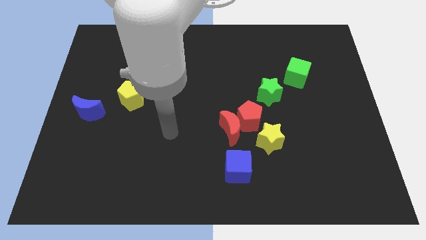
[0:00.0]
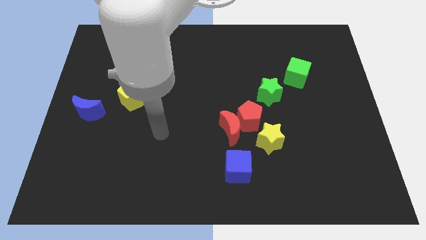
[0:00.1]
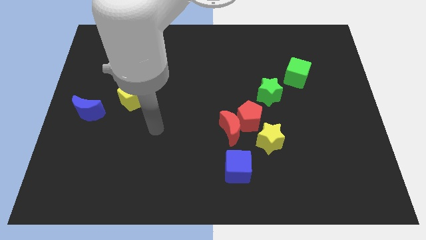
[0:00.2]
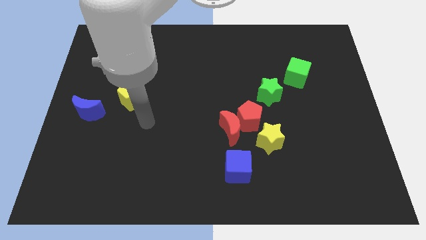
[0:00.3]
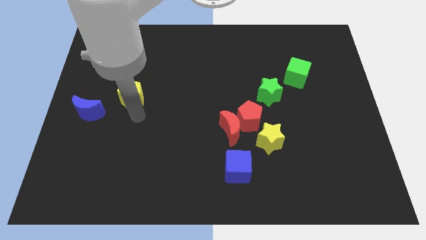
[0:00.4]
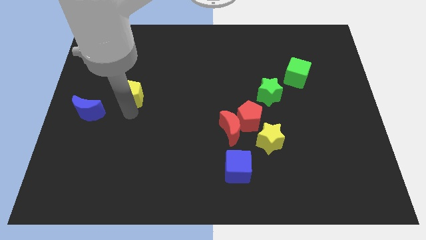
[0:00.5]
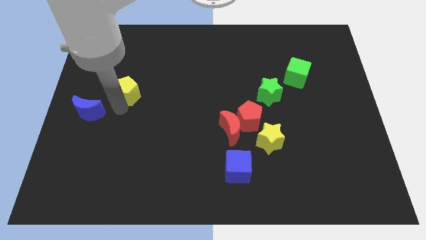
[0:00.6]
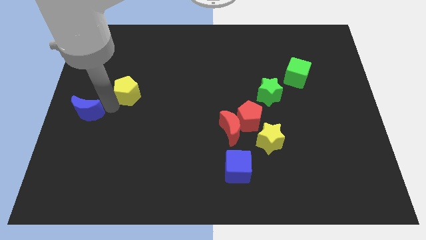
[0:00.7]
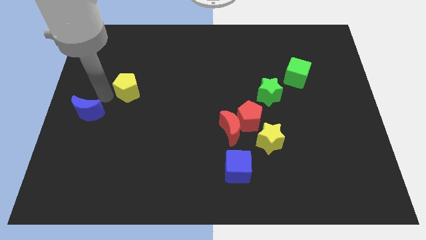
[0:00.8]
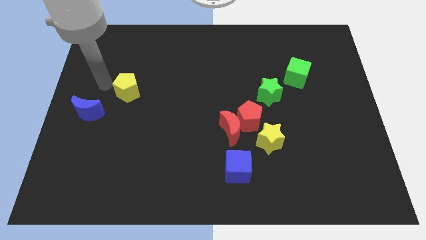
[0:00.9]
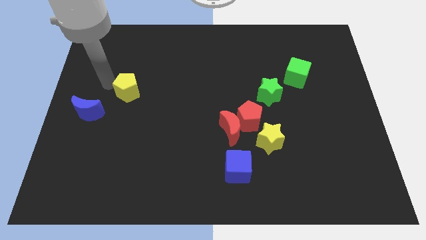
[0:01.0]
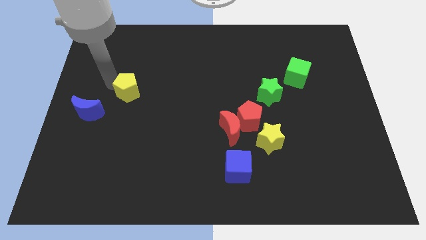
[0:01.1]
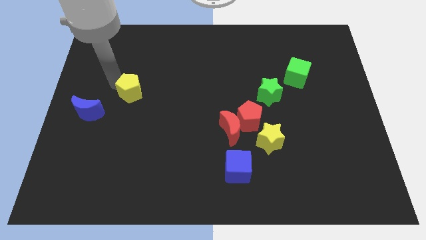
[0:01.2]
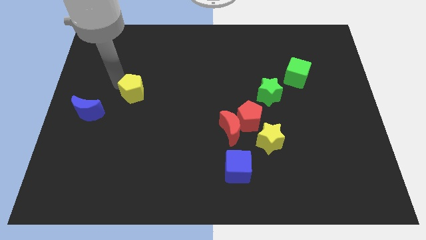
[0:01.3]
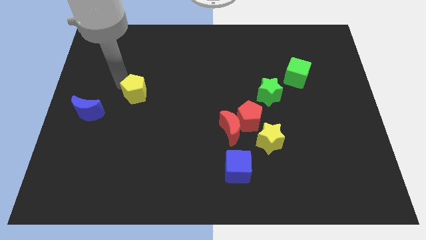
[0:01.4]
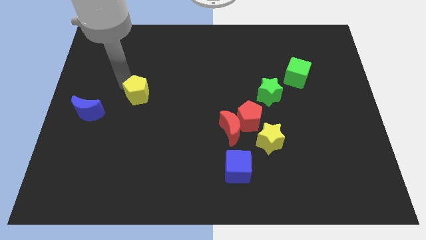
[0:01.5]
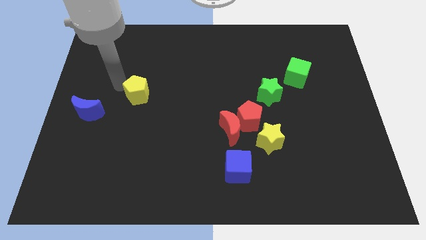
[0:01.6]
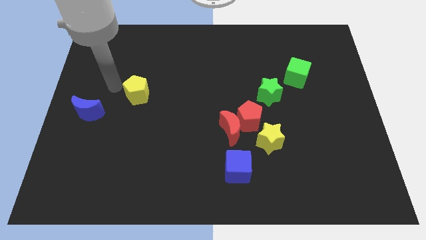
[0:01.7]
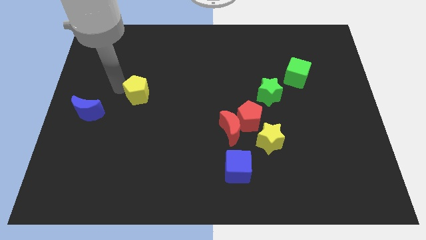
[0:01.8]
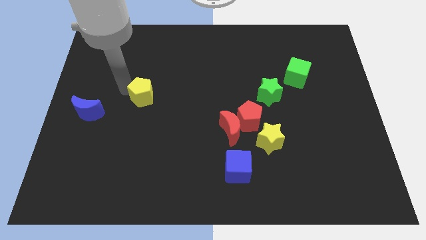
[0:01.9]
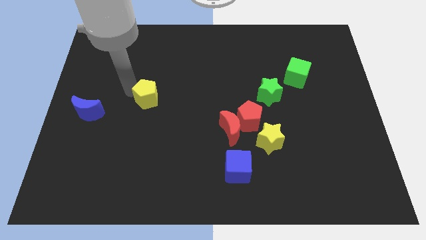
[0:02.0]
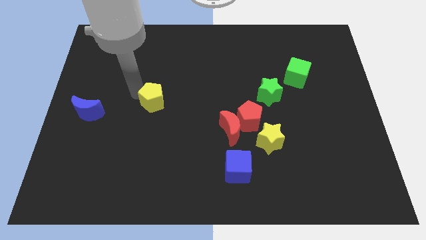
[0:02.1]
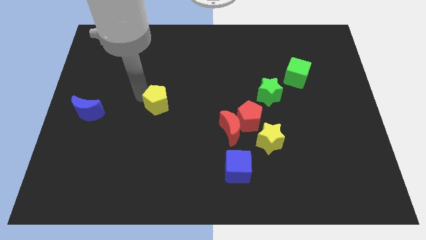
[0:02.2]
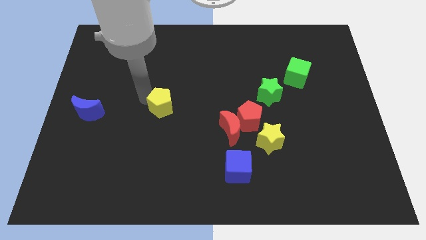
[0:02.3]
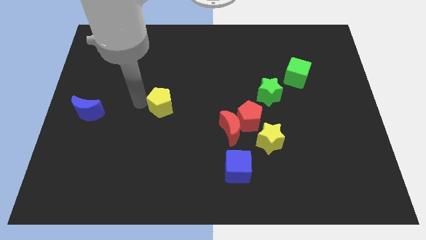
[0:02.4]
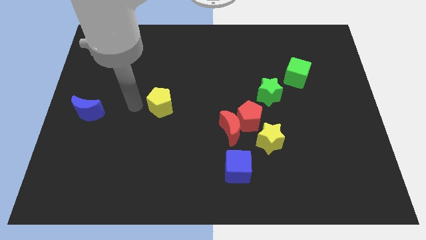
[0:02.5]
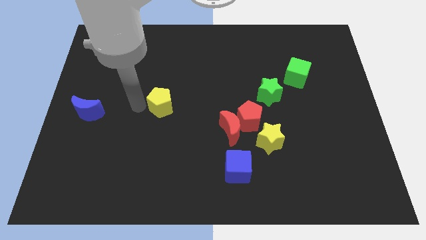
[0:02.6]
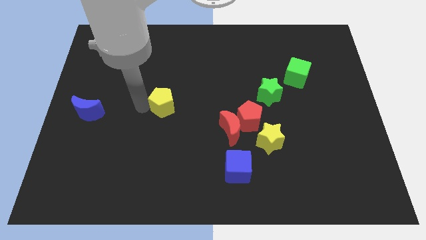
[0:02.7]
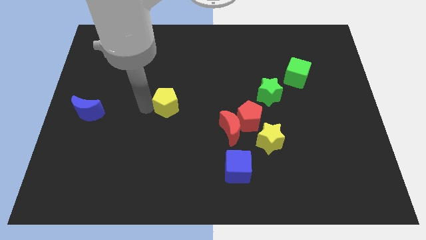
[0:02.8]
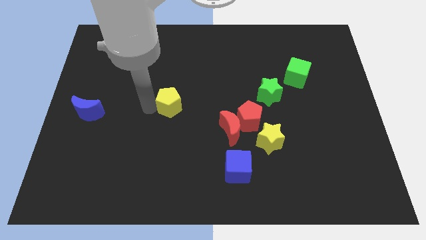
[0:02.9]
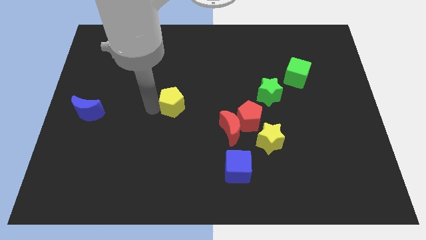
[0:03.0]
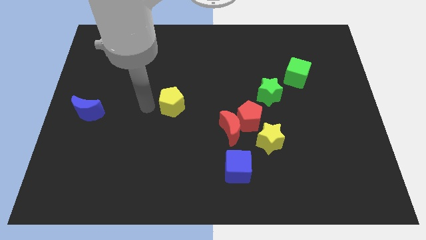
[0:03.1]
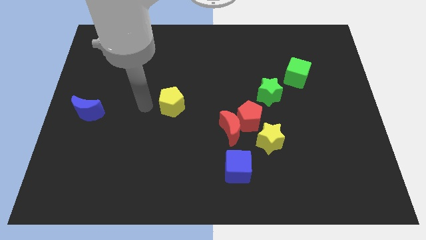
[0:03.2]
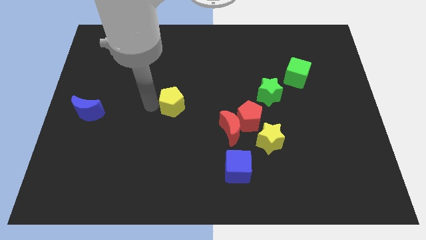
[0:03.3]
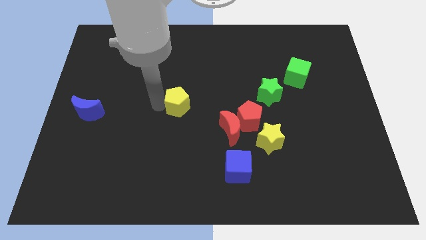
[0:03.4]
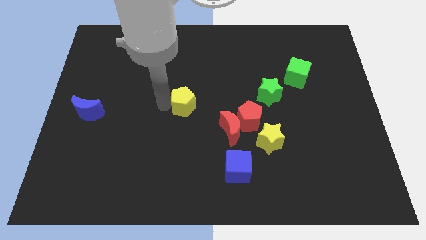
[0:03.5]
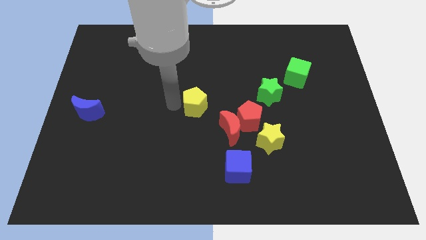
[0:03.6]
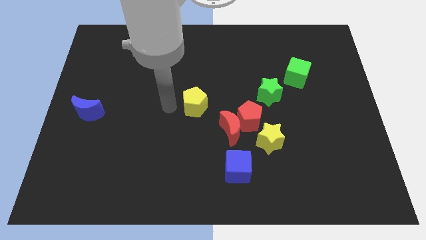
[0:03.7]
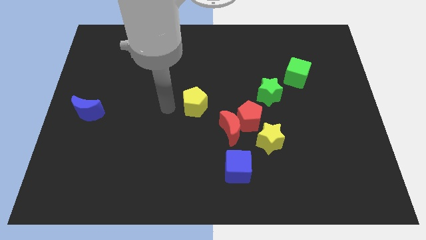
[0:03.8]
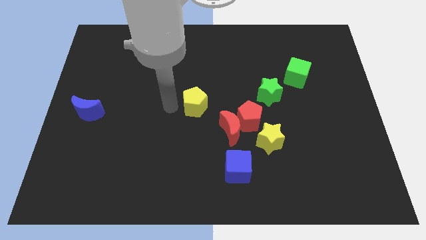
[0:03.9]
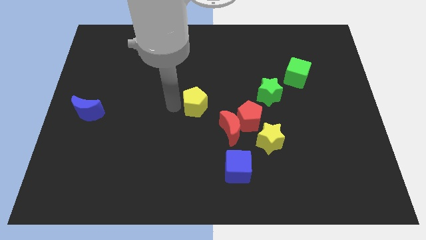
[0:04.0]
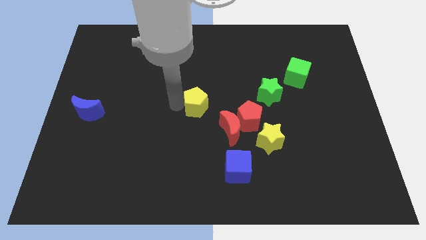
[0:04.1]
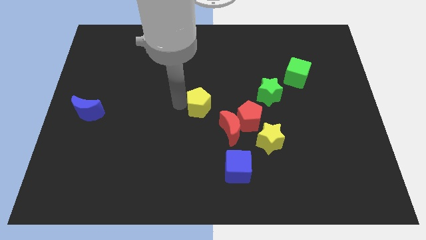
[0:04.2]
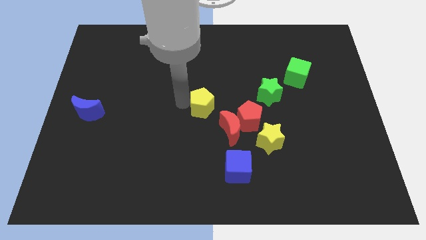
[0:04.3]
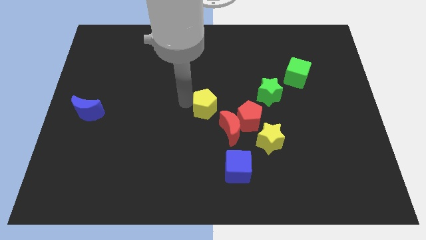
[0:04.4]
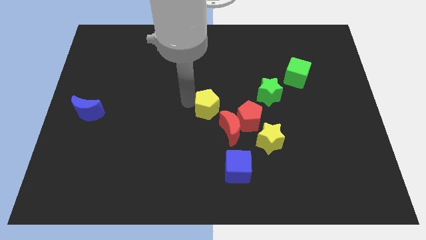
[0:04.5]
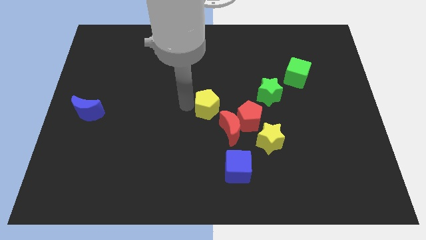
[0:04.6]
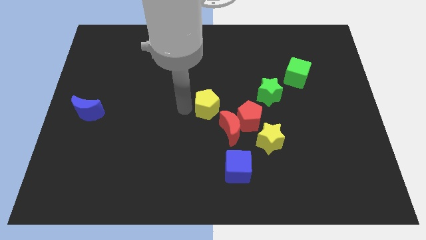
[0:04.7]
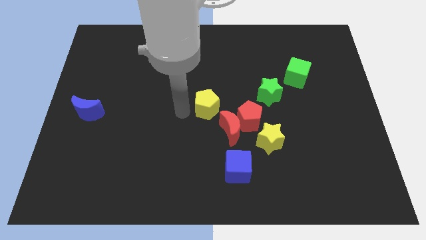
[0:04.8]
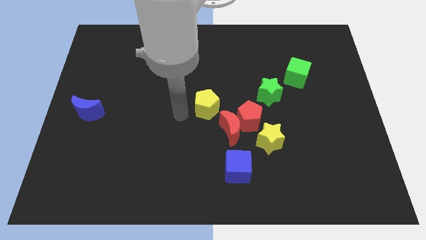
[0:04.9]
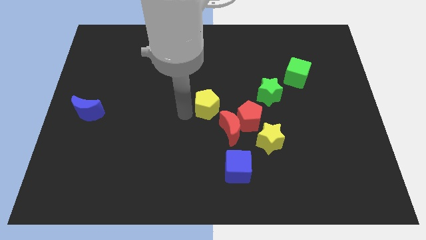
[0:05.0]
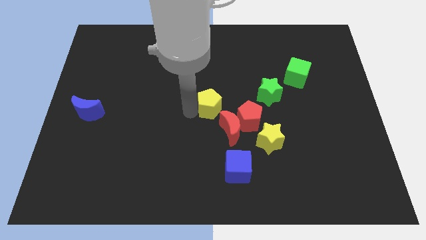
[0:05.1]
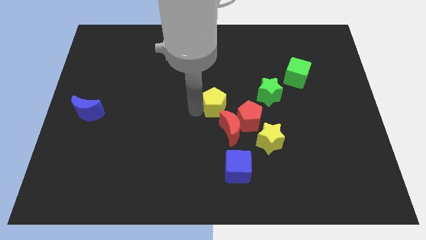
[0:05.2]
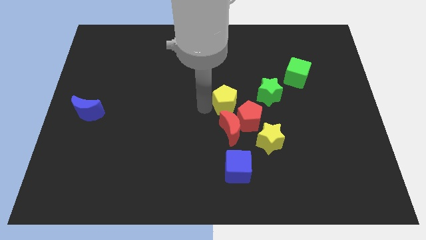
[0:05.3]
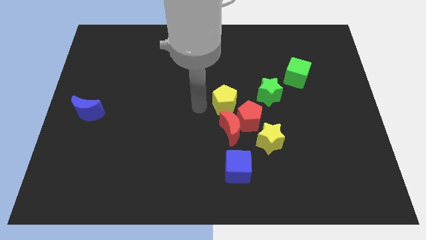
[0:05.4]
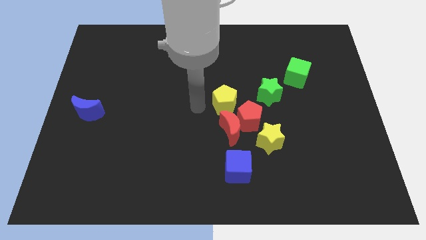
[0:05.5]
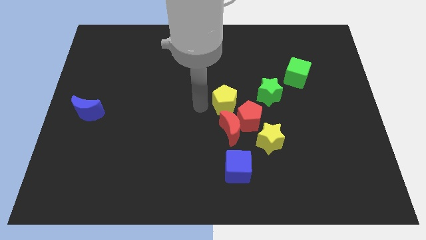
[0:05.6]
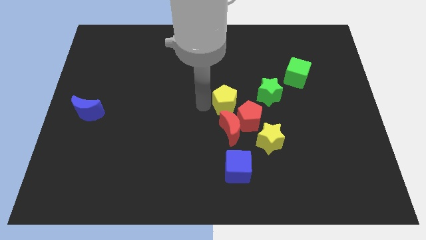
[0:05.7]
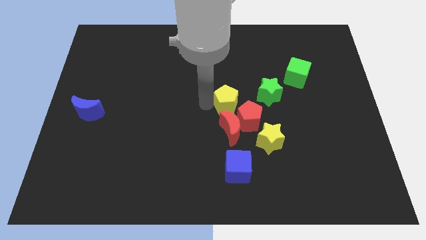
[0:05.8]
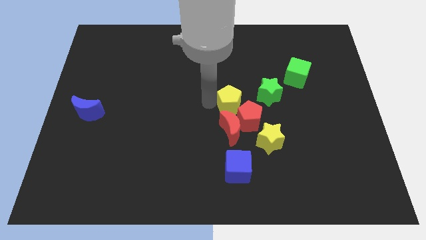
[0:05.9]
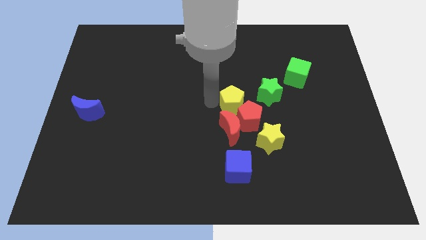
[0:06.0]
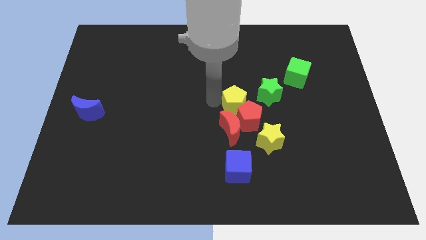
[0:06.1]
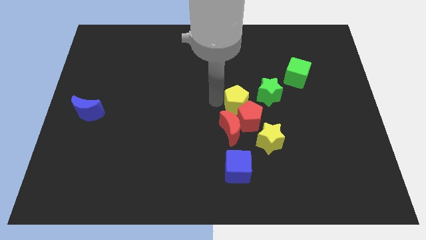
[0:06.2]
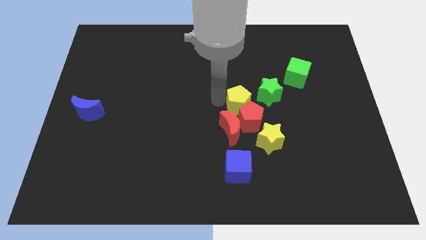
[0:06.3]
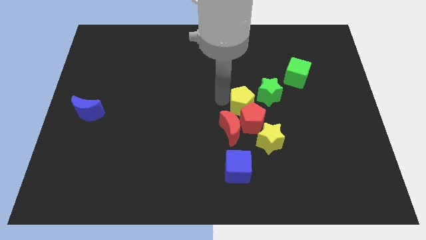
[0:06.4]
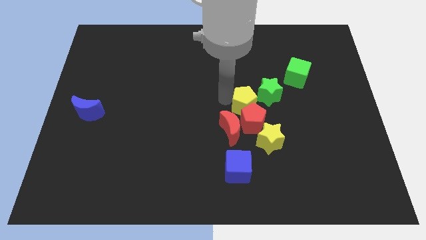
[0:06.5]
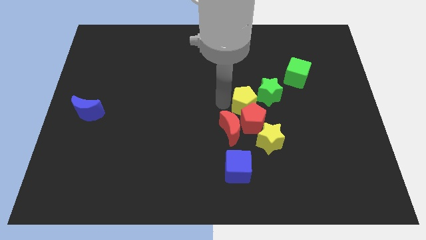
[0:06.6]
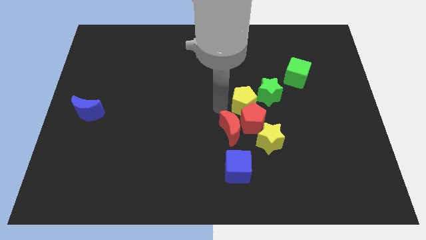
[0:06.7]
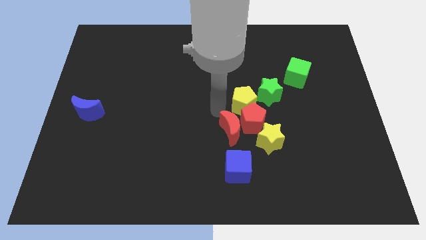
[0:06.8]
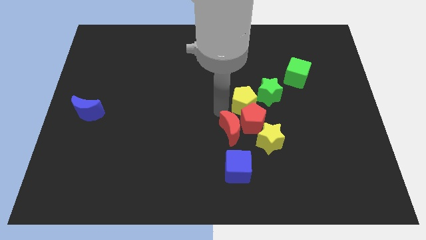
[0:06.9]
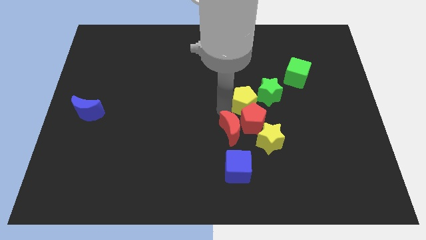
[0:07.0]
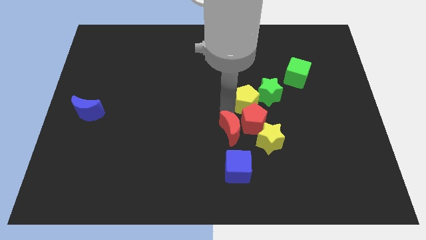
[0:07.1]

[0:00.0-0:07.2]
move the yellow pentagon to the green star
